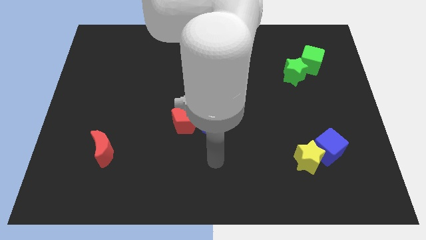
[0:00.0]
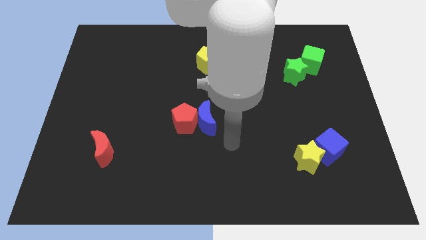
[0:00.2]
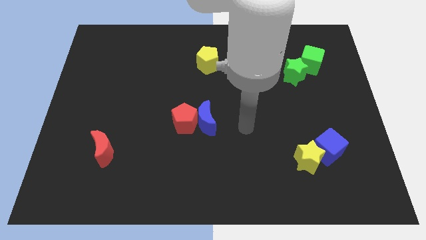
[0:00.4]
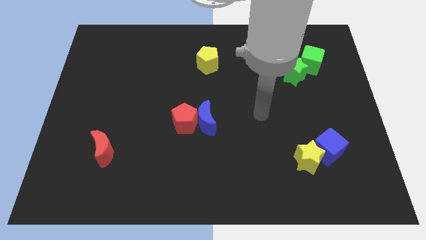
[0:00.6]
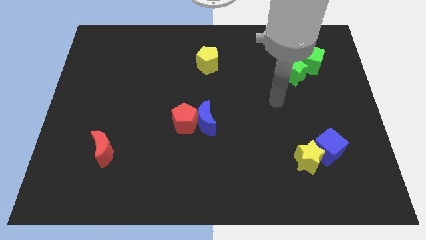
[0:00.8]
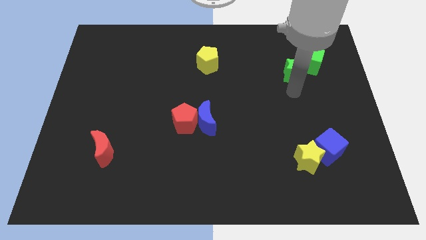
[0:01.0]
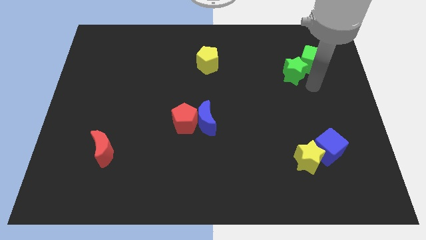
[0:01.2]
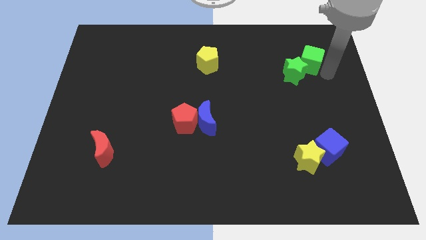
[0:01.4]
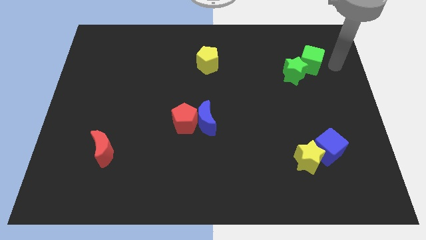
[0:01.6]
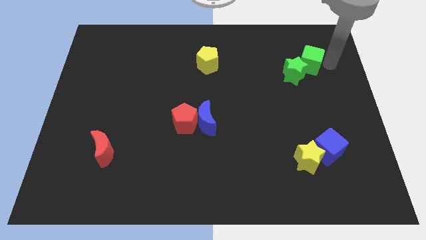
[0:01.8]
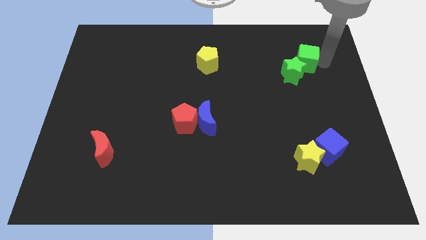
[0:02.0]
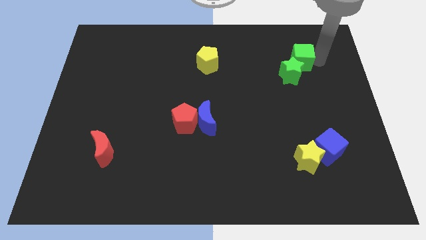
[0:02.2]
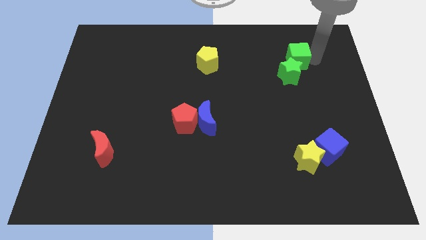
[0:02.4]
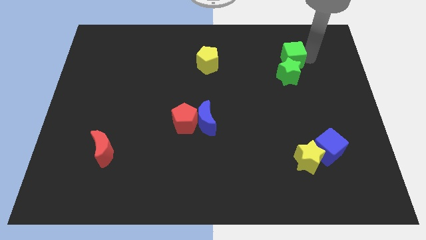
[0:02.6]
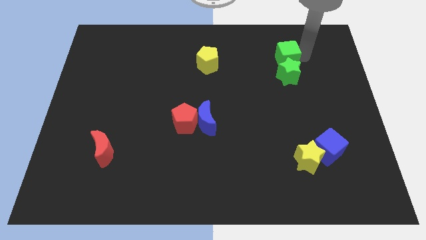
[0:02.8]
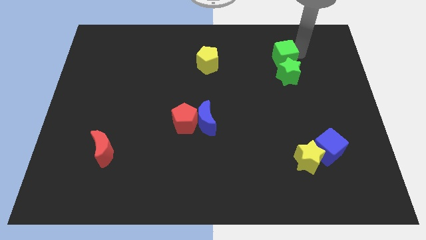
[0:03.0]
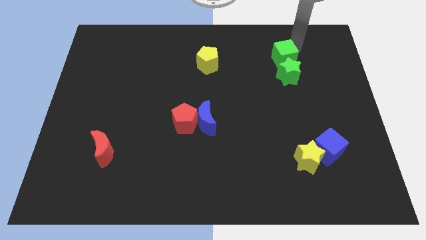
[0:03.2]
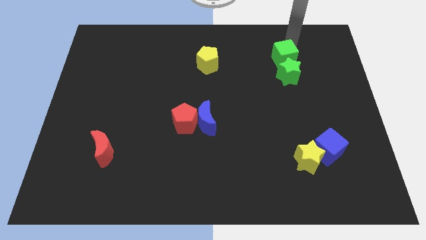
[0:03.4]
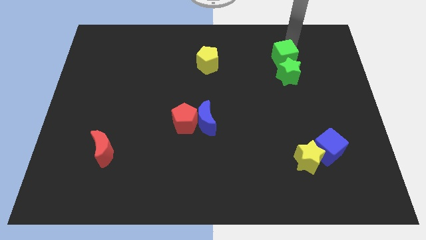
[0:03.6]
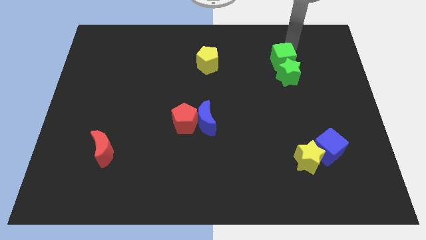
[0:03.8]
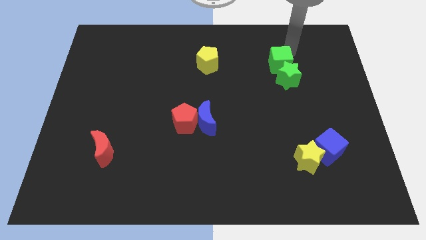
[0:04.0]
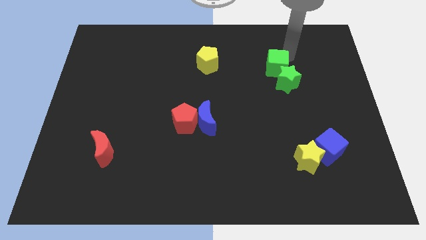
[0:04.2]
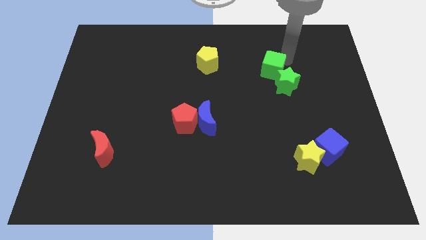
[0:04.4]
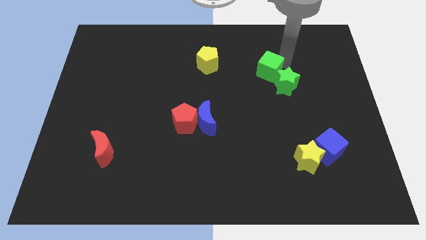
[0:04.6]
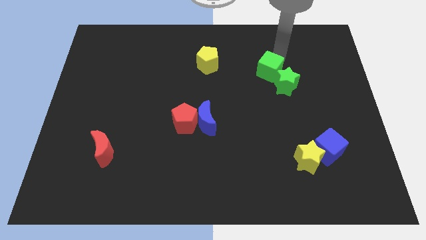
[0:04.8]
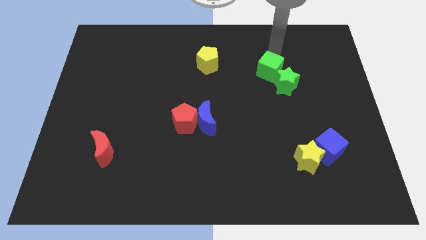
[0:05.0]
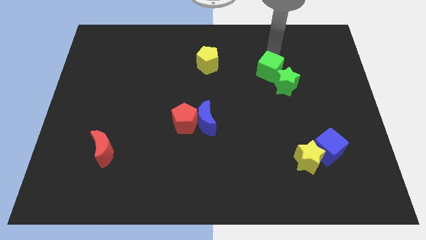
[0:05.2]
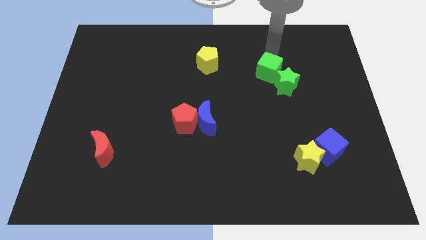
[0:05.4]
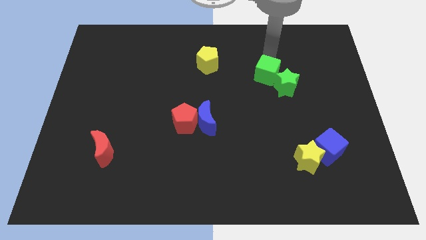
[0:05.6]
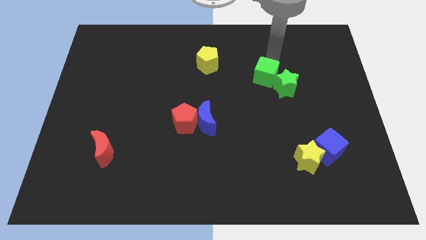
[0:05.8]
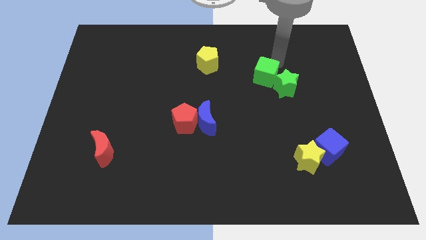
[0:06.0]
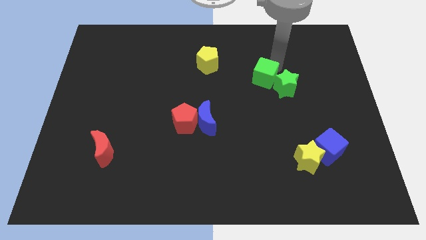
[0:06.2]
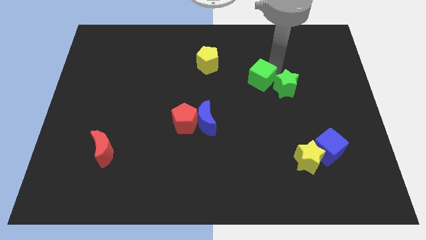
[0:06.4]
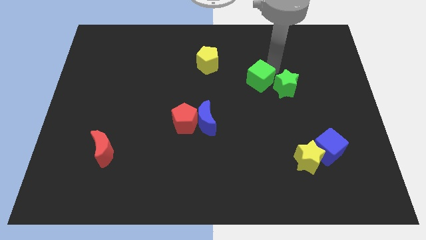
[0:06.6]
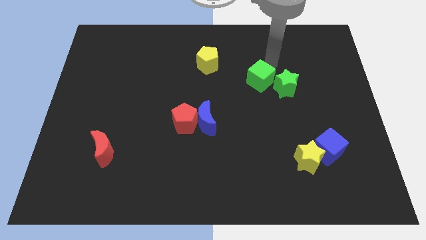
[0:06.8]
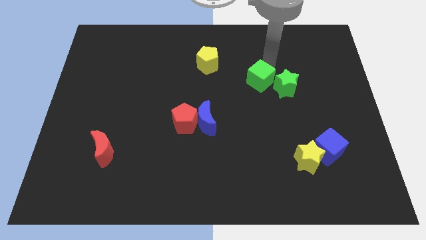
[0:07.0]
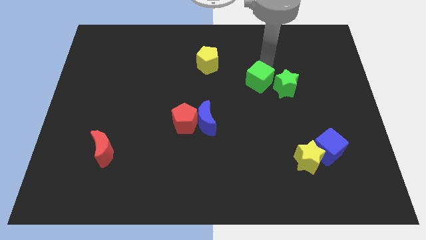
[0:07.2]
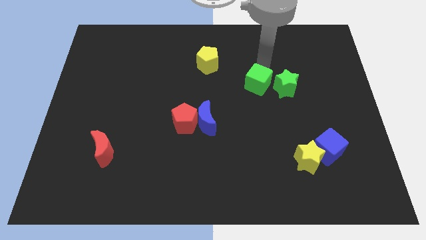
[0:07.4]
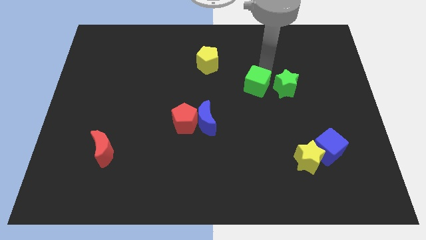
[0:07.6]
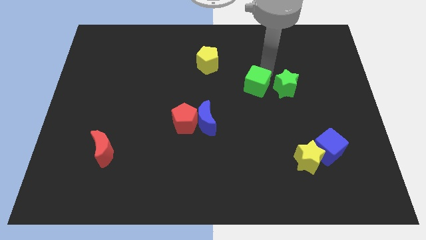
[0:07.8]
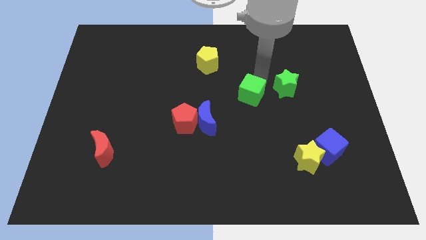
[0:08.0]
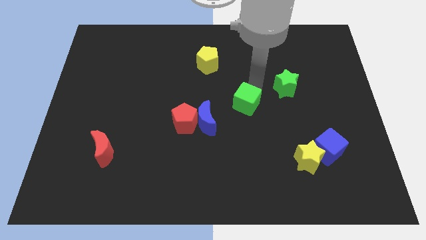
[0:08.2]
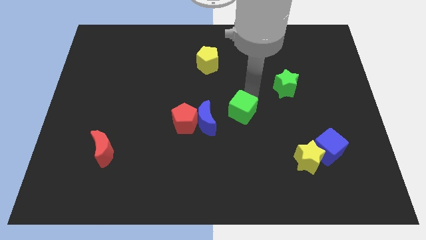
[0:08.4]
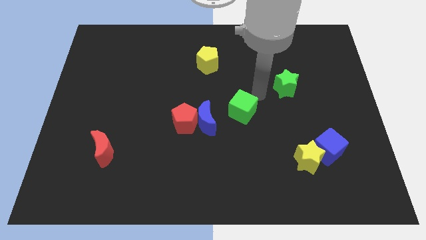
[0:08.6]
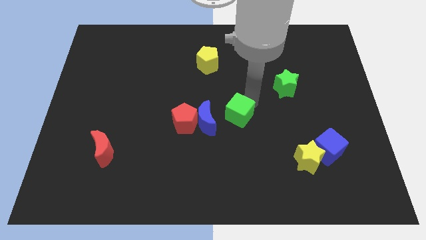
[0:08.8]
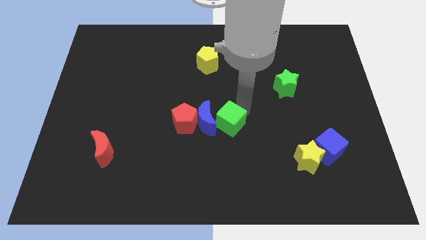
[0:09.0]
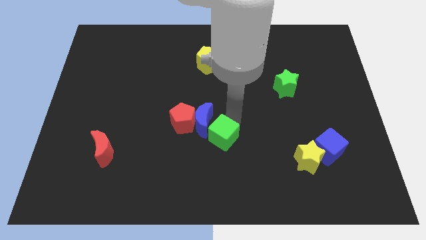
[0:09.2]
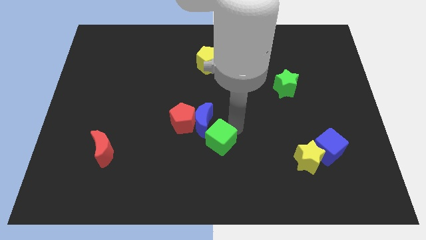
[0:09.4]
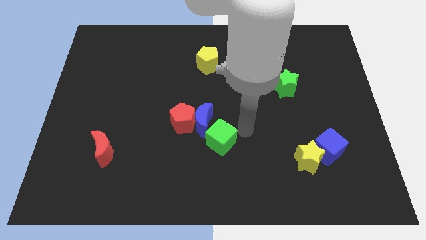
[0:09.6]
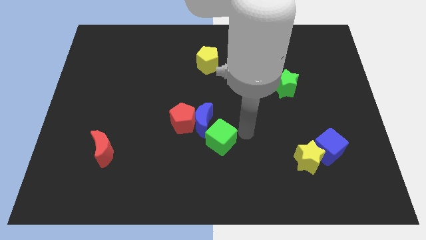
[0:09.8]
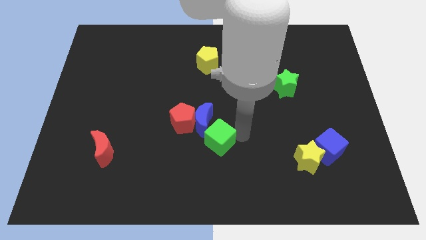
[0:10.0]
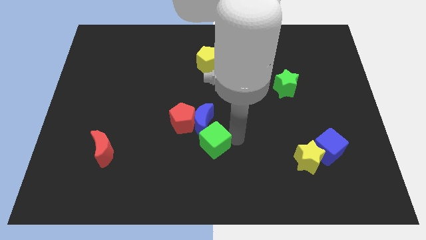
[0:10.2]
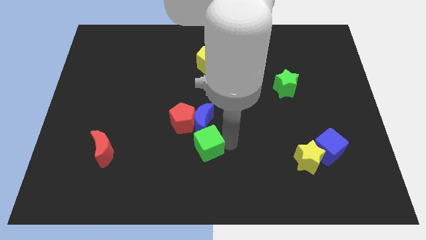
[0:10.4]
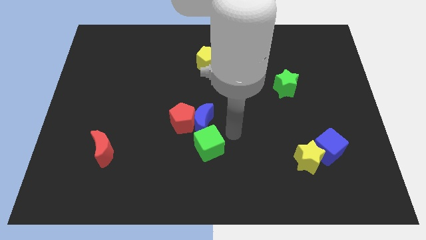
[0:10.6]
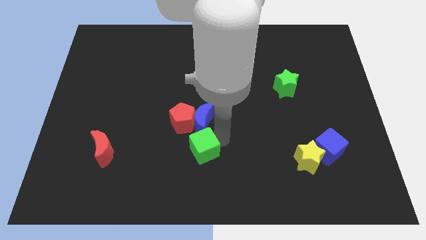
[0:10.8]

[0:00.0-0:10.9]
move the green cube to the bottom of the red pentagon

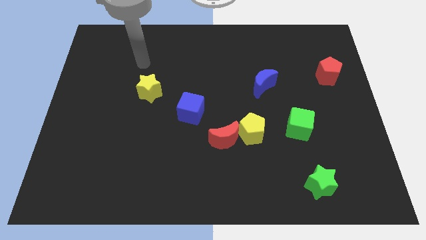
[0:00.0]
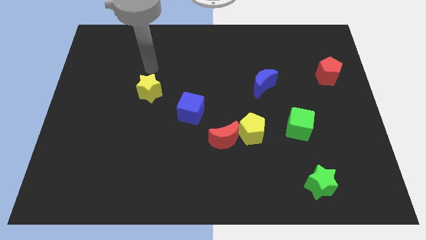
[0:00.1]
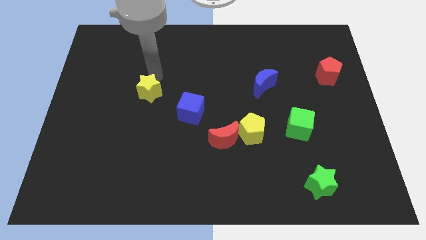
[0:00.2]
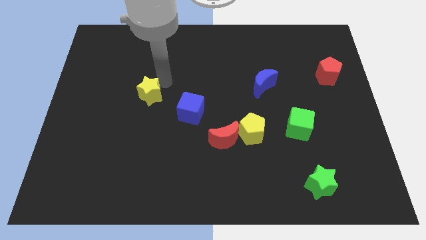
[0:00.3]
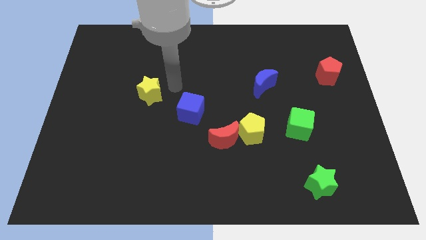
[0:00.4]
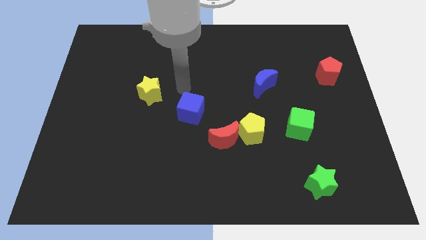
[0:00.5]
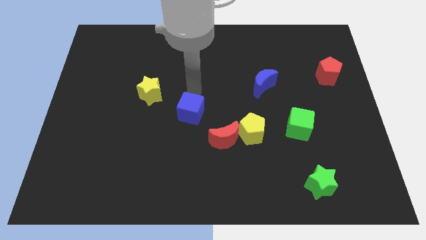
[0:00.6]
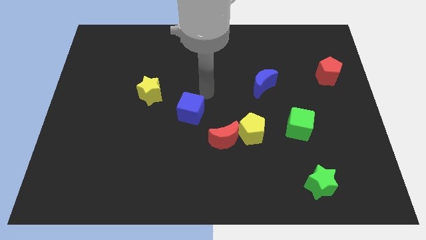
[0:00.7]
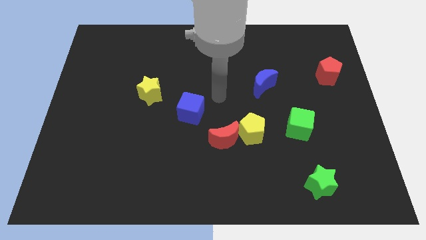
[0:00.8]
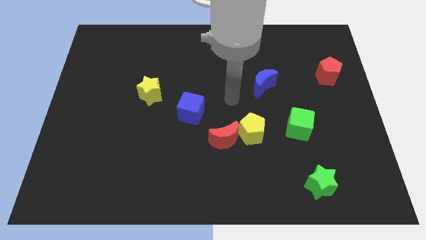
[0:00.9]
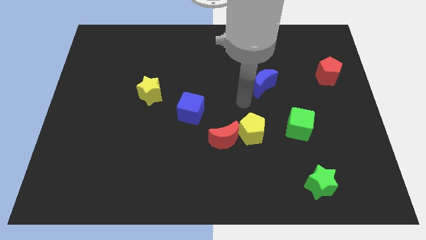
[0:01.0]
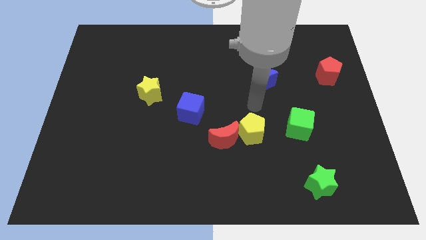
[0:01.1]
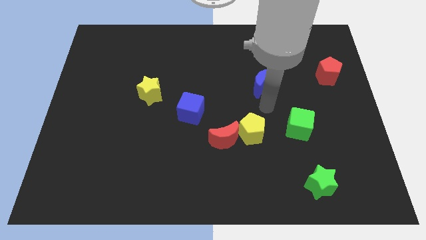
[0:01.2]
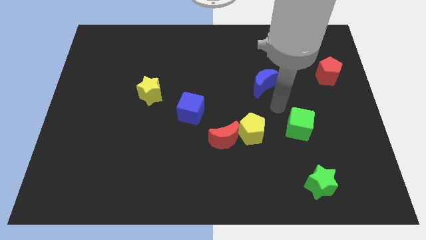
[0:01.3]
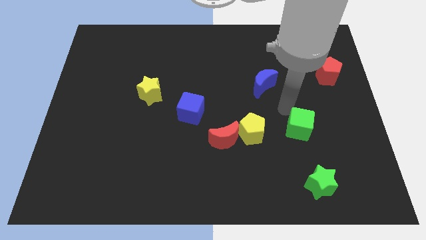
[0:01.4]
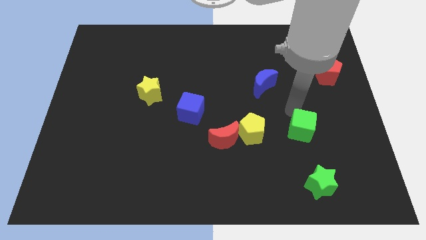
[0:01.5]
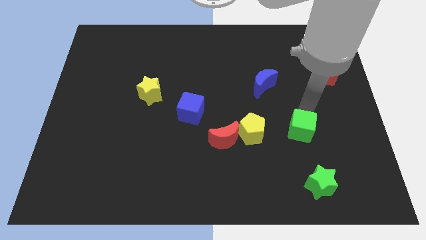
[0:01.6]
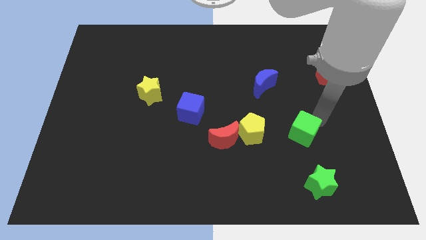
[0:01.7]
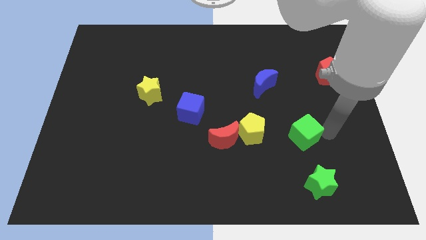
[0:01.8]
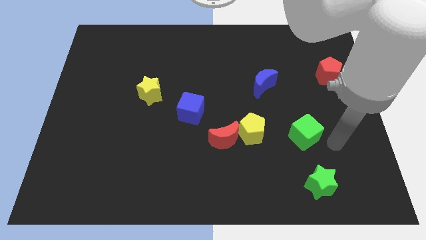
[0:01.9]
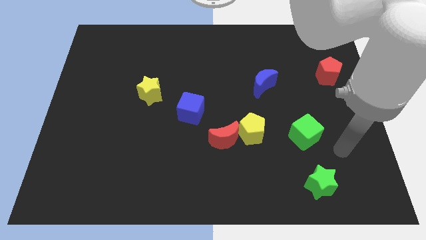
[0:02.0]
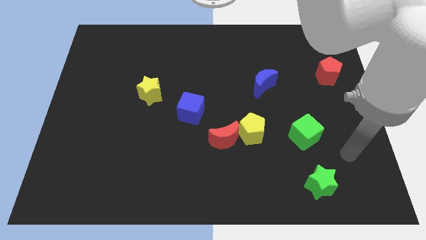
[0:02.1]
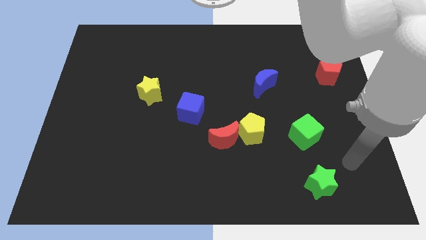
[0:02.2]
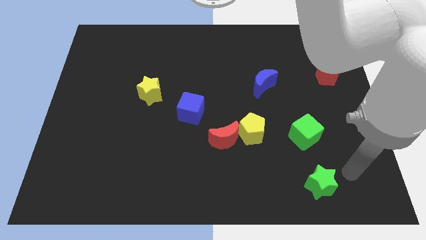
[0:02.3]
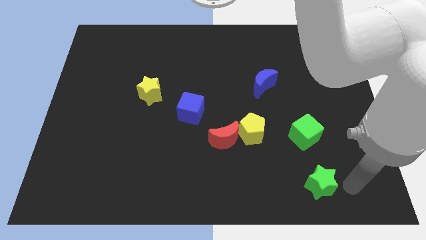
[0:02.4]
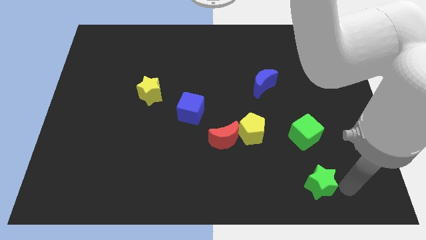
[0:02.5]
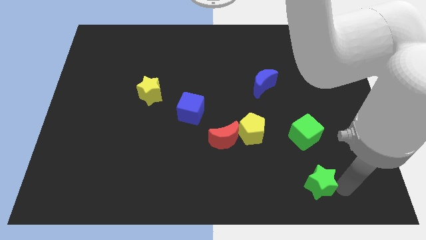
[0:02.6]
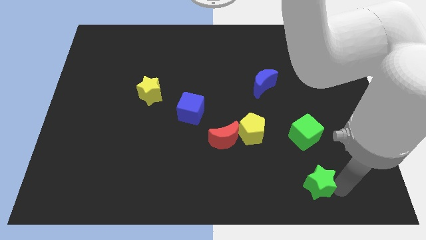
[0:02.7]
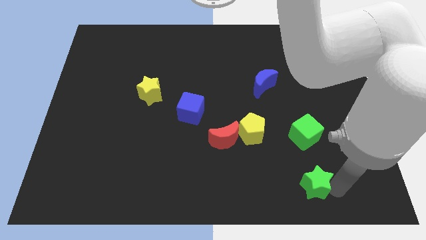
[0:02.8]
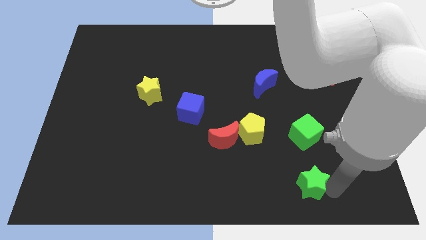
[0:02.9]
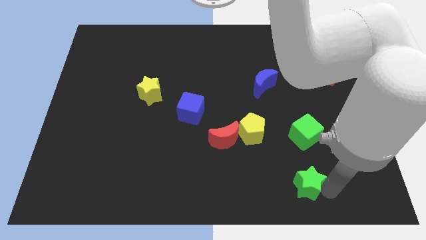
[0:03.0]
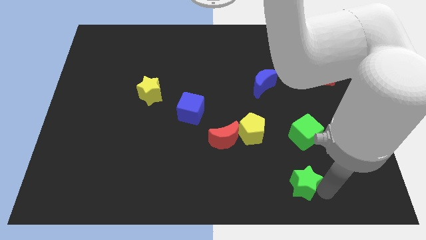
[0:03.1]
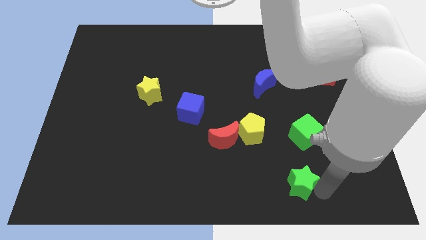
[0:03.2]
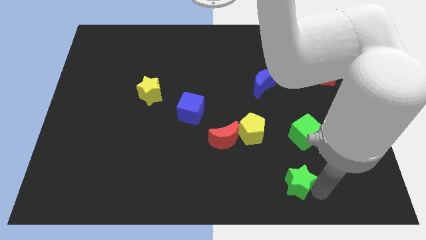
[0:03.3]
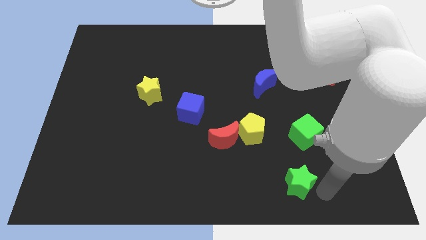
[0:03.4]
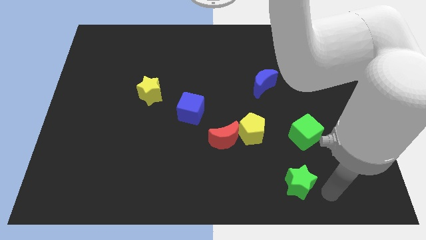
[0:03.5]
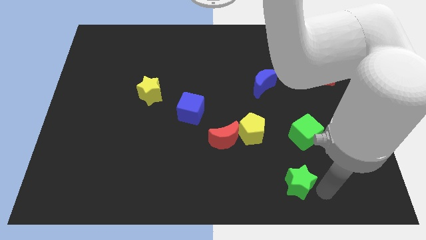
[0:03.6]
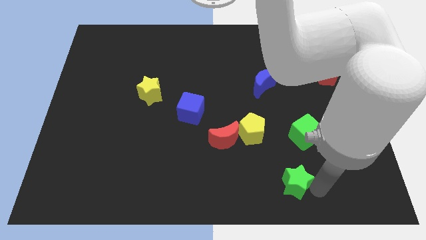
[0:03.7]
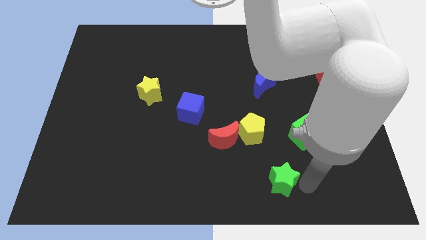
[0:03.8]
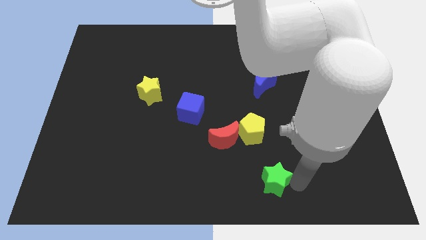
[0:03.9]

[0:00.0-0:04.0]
move the green star below the yellow pentagon
